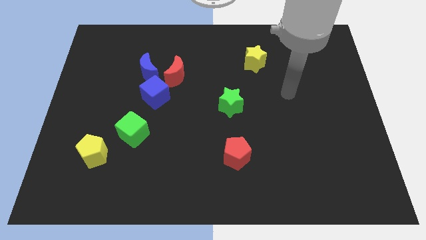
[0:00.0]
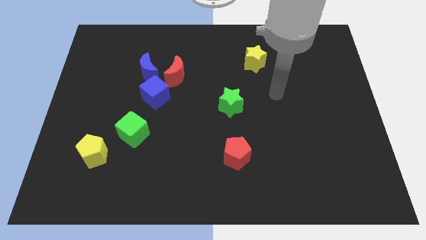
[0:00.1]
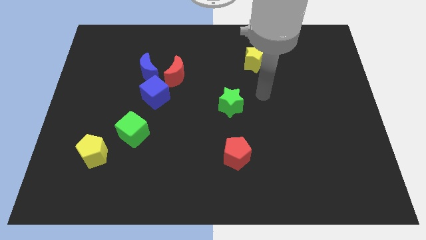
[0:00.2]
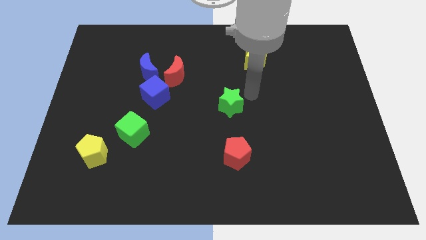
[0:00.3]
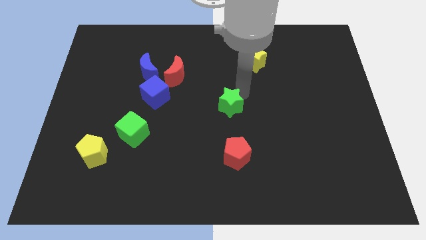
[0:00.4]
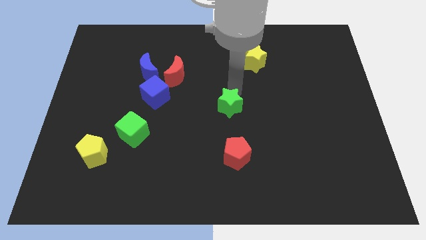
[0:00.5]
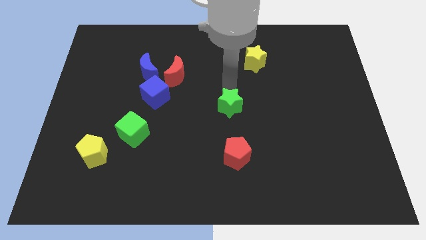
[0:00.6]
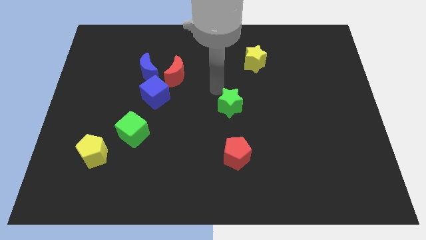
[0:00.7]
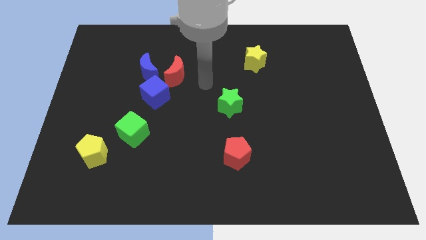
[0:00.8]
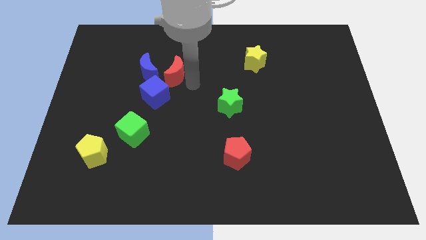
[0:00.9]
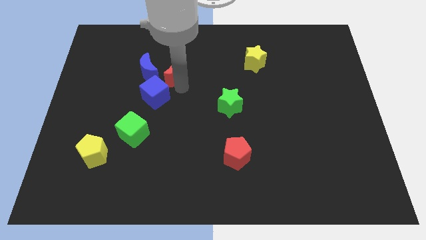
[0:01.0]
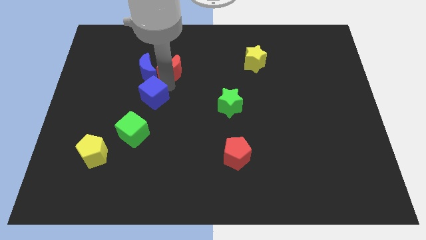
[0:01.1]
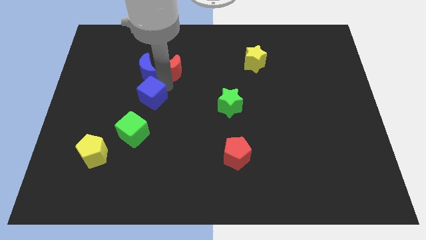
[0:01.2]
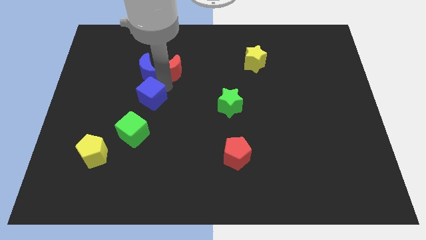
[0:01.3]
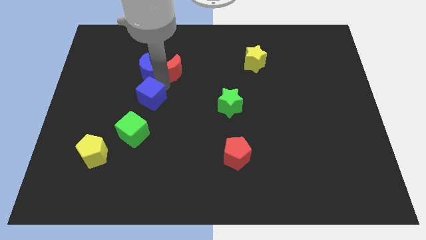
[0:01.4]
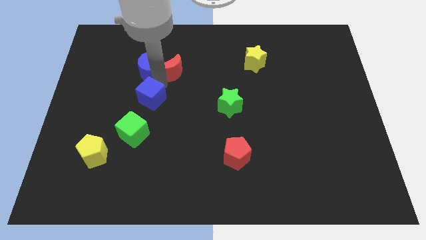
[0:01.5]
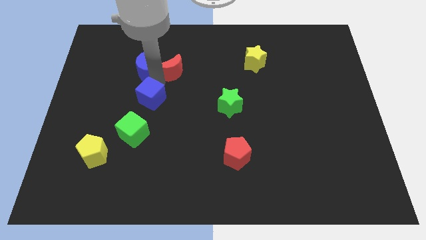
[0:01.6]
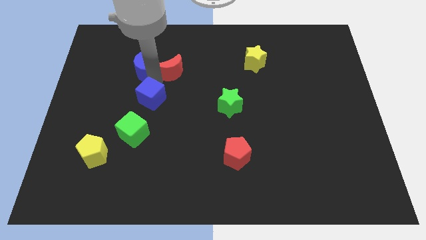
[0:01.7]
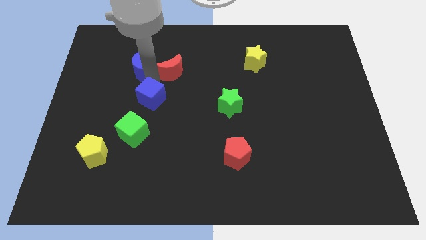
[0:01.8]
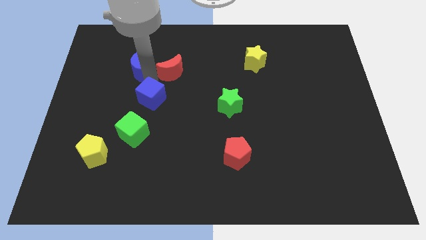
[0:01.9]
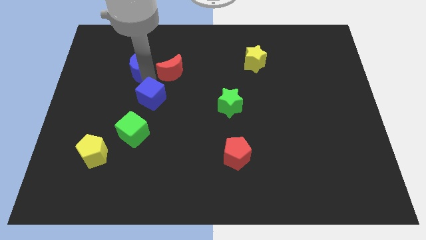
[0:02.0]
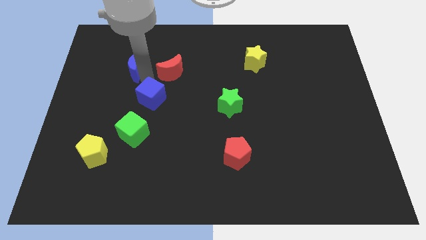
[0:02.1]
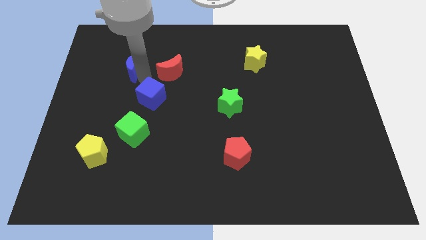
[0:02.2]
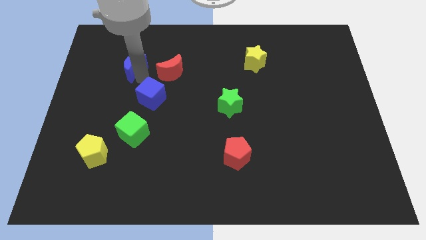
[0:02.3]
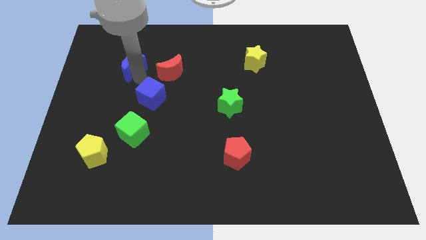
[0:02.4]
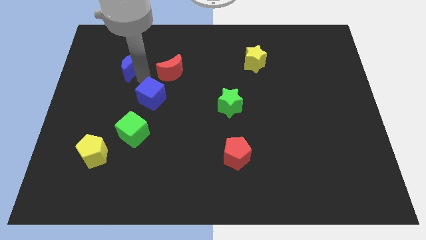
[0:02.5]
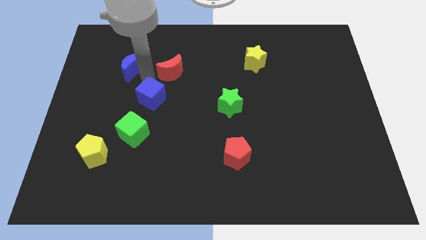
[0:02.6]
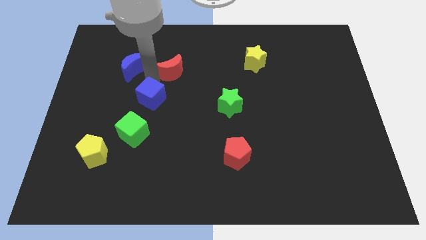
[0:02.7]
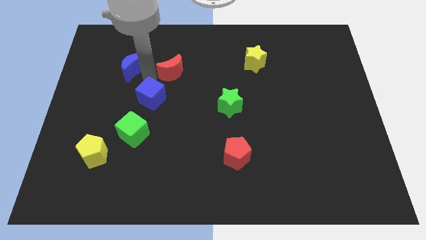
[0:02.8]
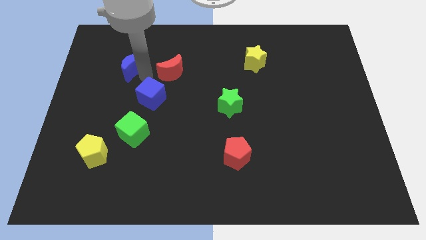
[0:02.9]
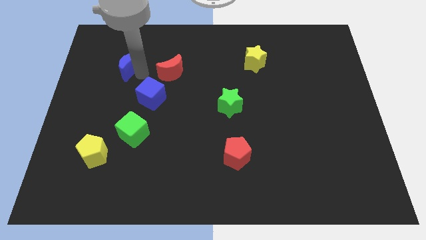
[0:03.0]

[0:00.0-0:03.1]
separate the blue moon from the red moon and blue cube

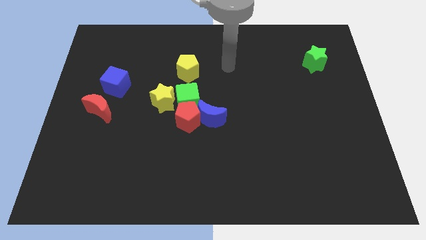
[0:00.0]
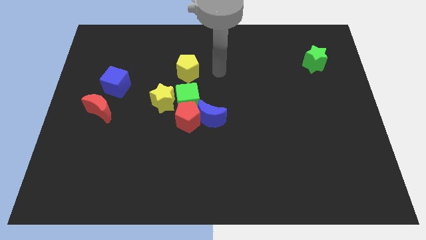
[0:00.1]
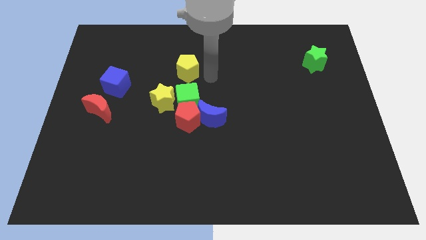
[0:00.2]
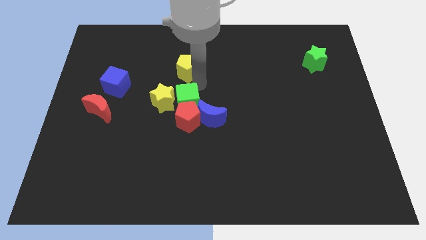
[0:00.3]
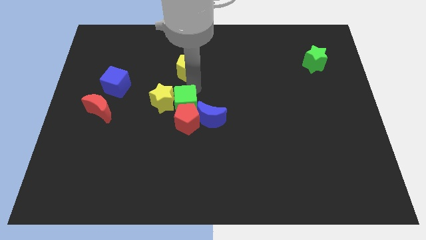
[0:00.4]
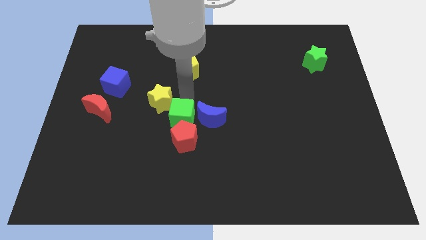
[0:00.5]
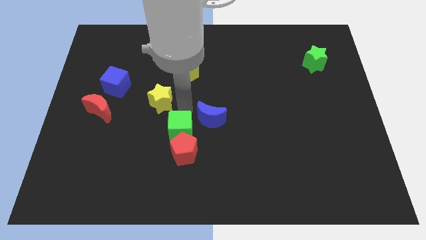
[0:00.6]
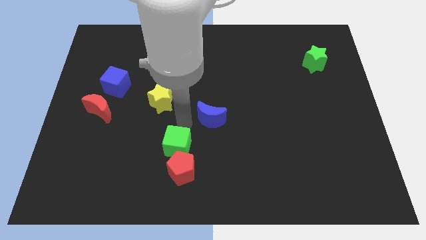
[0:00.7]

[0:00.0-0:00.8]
pull the red pentagon apart from the blue moon, green cube, and yellow star

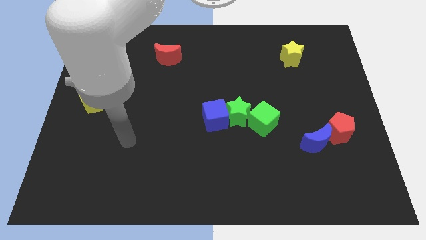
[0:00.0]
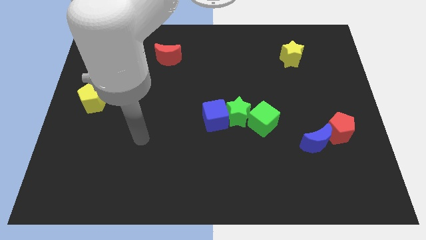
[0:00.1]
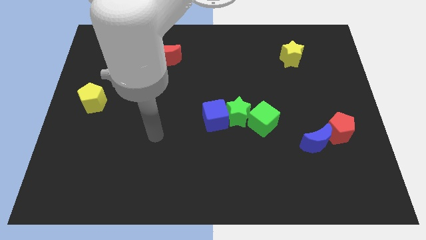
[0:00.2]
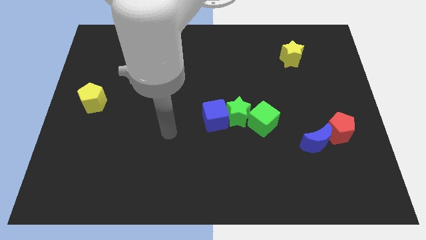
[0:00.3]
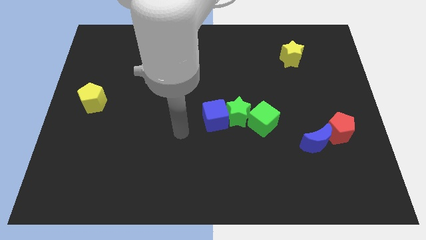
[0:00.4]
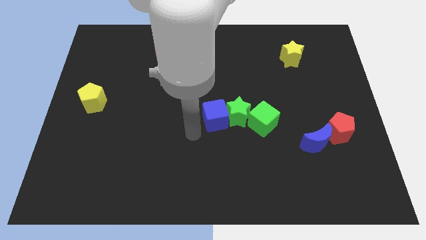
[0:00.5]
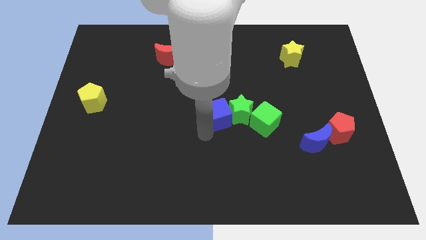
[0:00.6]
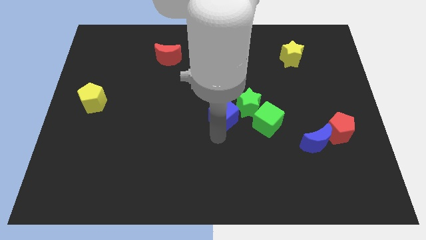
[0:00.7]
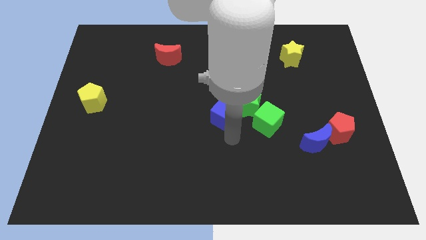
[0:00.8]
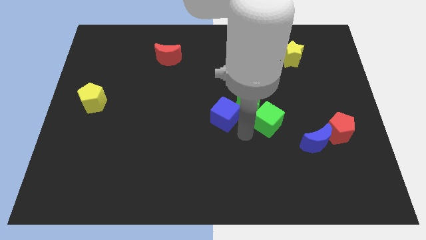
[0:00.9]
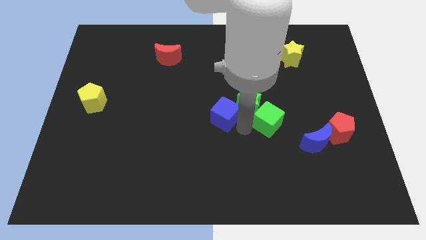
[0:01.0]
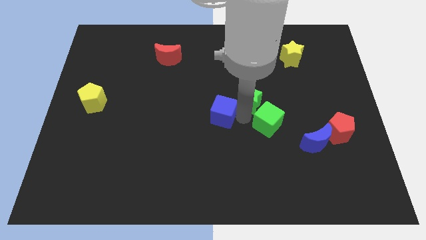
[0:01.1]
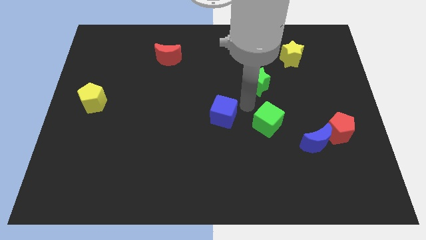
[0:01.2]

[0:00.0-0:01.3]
separate the blue cube from the green star

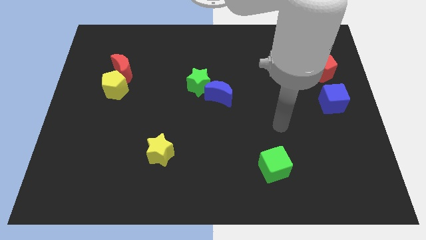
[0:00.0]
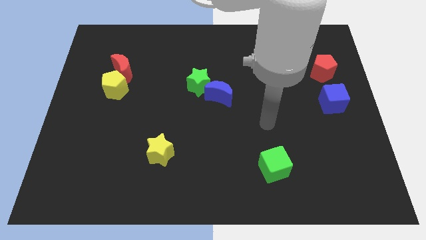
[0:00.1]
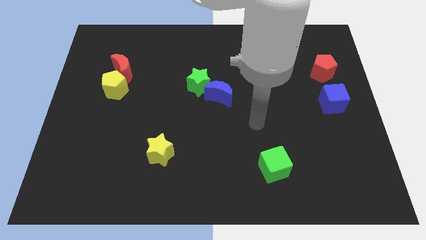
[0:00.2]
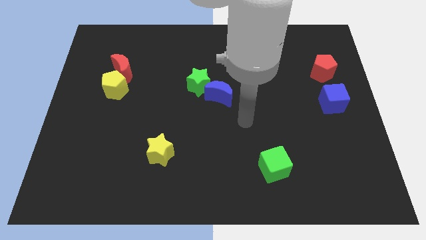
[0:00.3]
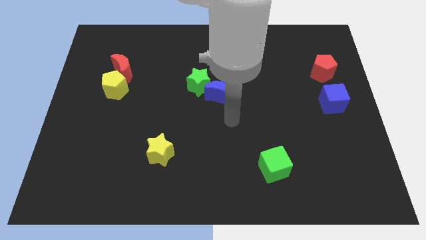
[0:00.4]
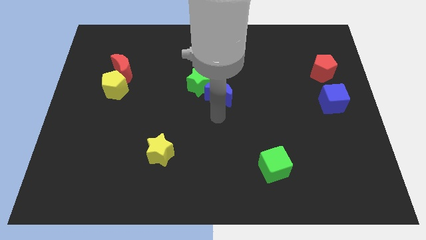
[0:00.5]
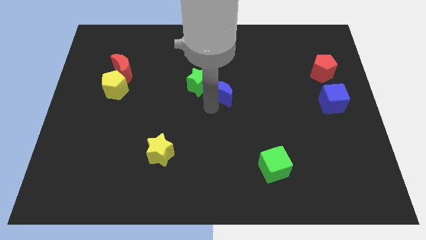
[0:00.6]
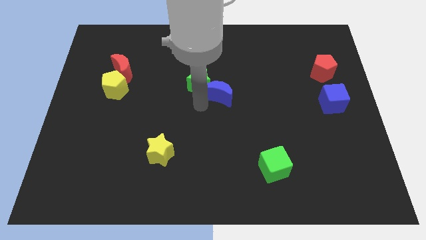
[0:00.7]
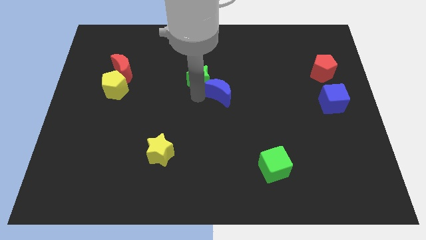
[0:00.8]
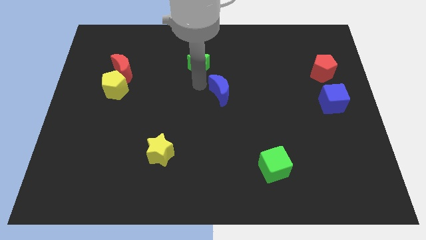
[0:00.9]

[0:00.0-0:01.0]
pull the blue moon apart from the green star

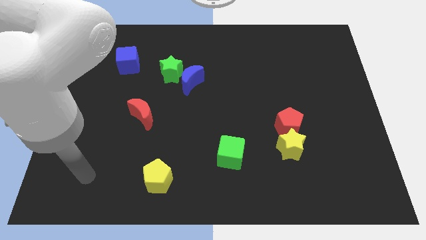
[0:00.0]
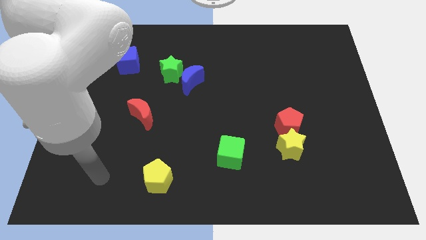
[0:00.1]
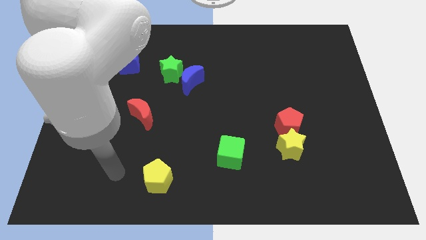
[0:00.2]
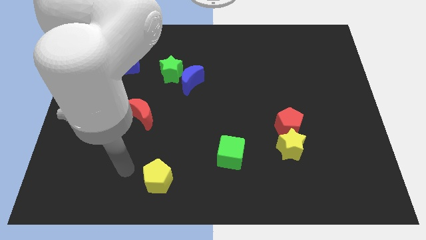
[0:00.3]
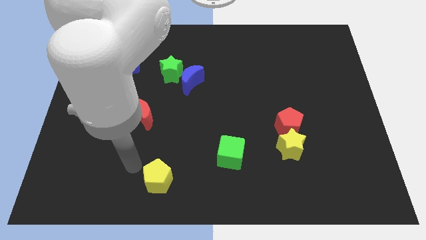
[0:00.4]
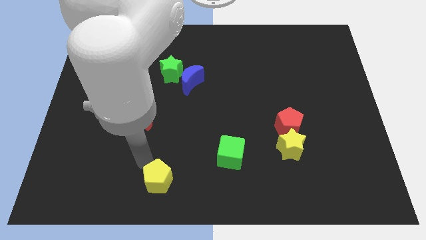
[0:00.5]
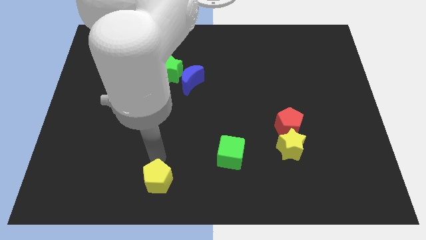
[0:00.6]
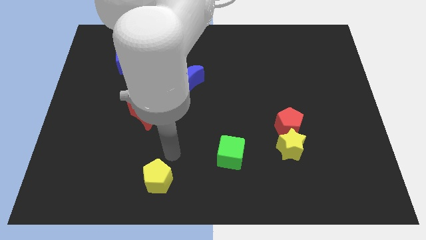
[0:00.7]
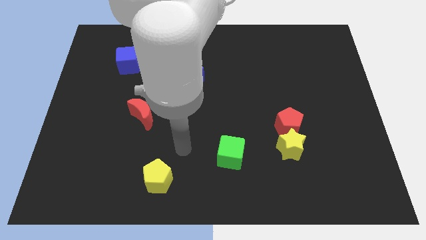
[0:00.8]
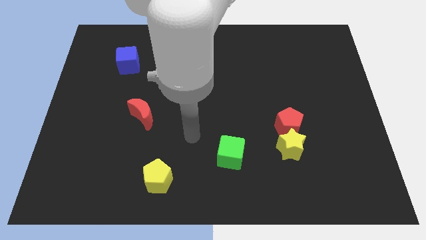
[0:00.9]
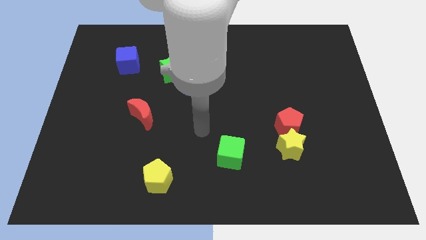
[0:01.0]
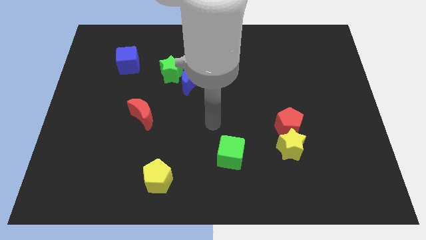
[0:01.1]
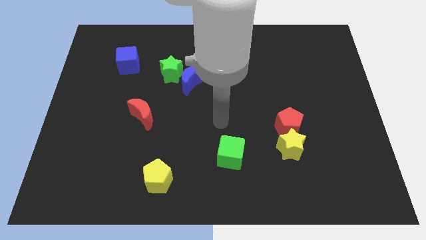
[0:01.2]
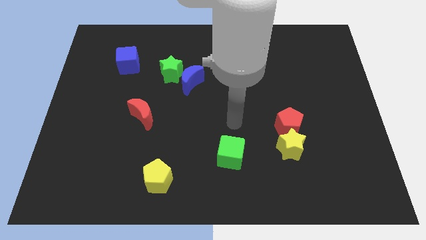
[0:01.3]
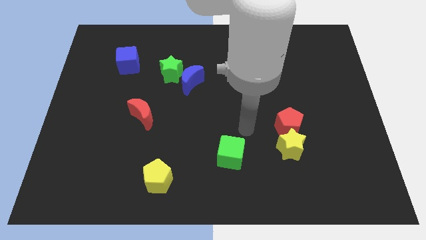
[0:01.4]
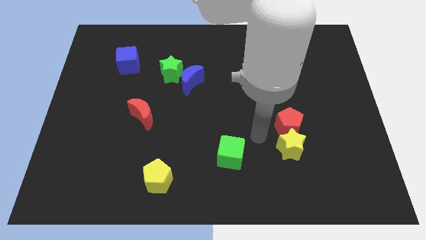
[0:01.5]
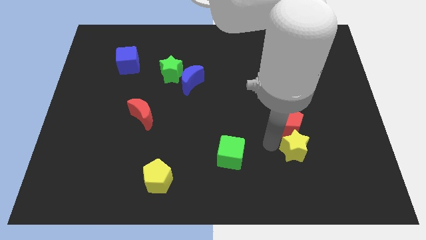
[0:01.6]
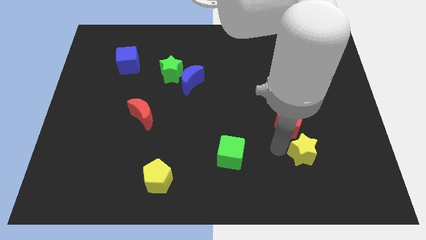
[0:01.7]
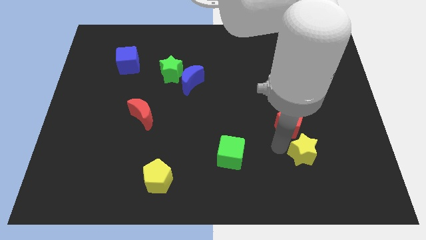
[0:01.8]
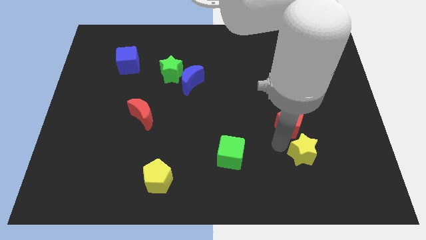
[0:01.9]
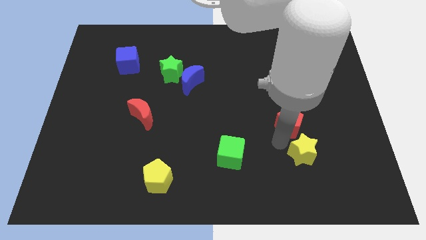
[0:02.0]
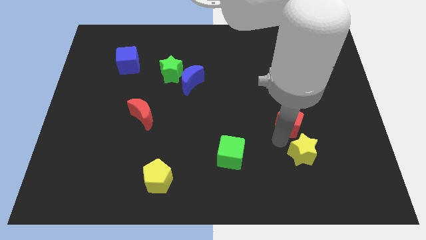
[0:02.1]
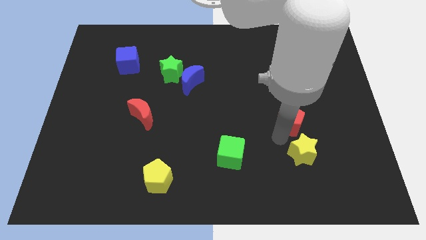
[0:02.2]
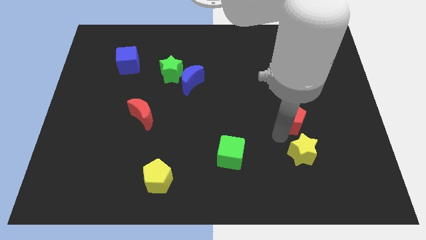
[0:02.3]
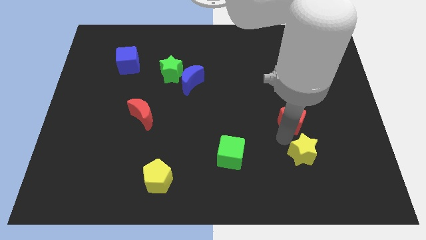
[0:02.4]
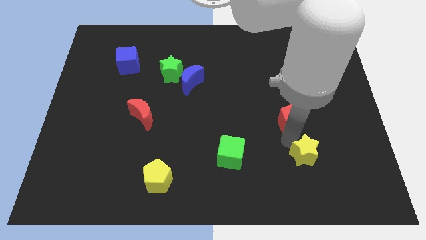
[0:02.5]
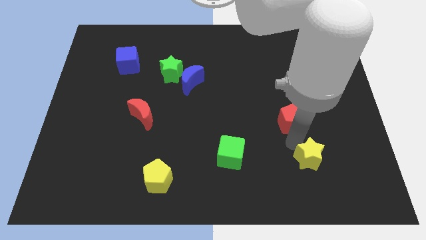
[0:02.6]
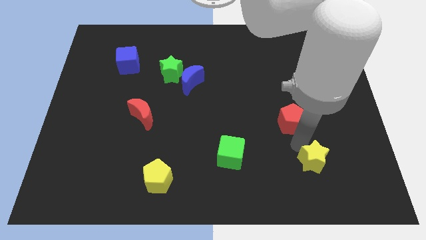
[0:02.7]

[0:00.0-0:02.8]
move the red pentagon away from the yellow star

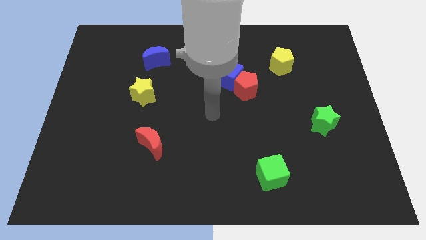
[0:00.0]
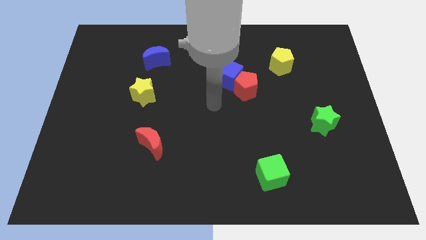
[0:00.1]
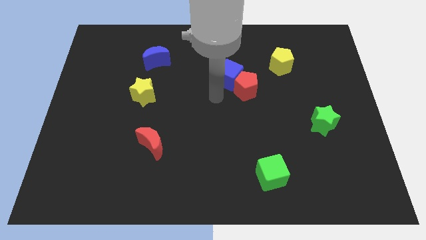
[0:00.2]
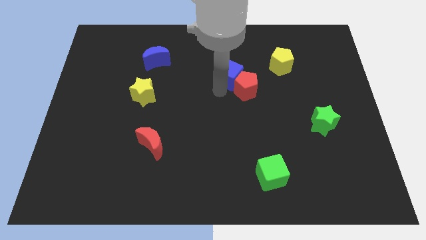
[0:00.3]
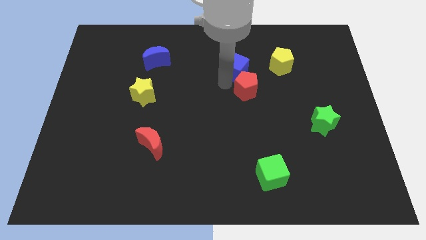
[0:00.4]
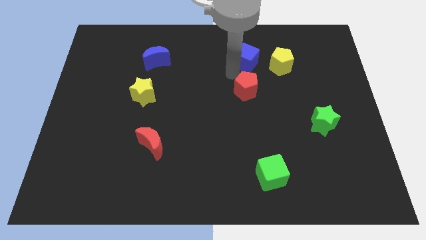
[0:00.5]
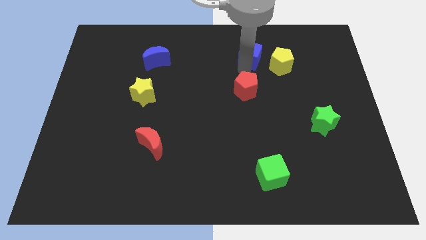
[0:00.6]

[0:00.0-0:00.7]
pull the red pentagon apart from the blue cube
